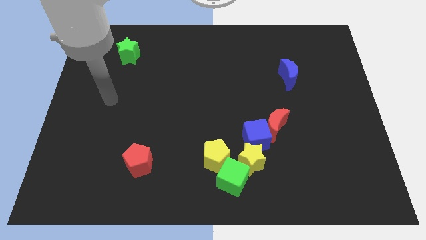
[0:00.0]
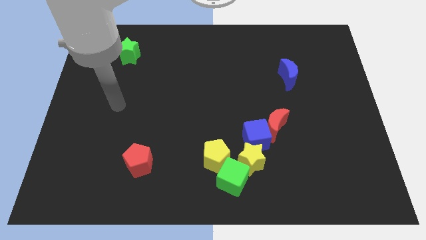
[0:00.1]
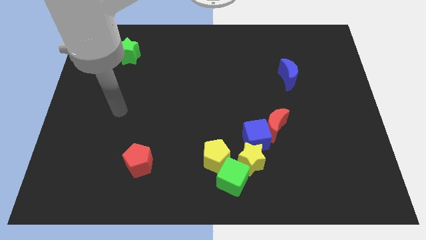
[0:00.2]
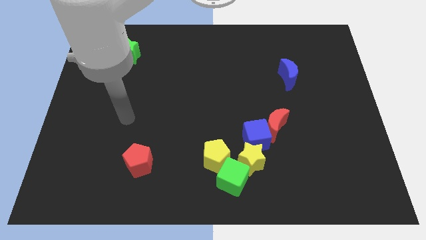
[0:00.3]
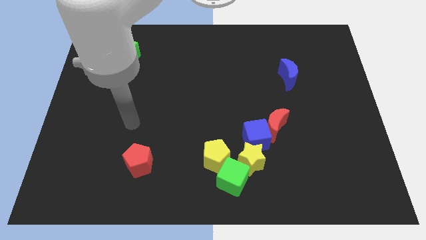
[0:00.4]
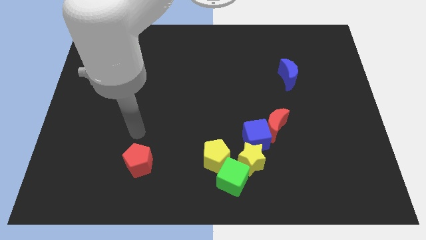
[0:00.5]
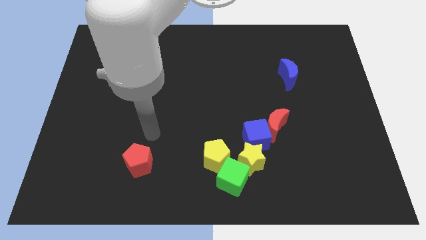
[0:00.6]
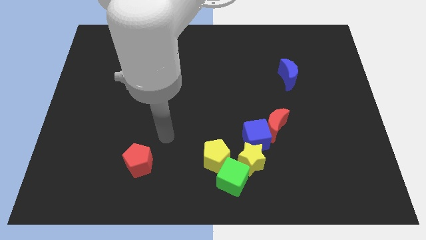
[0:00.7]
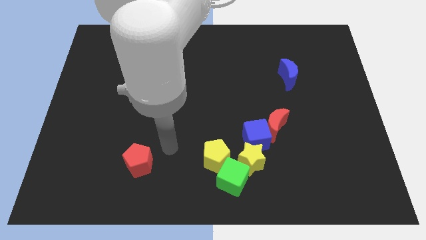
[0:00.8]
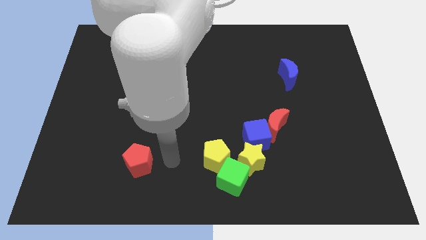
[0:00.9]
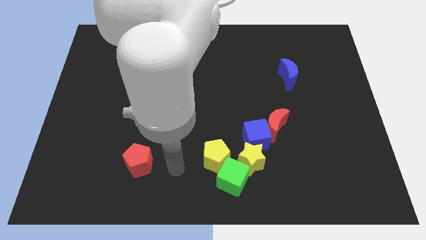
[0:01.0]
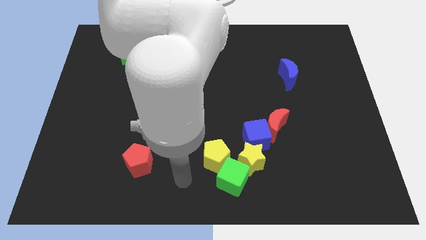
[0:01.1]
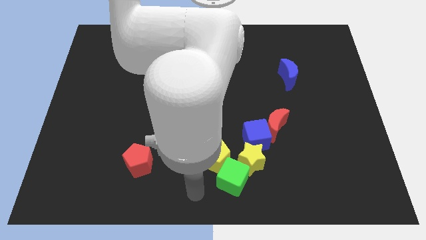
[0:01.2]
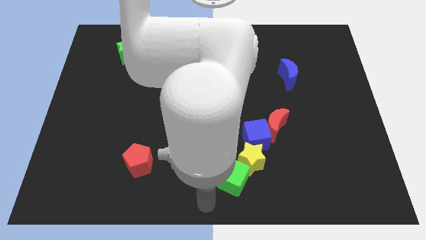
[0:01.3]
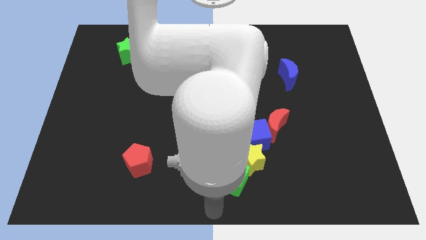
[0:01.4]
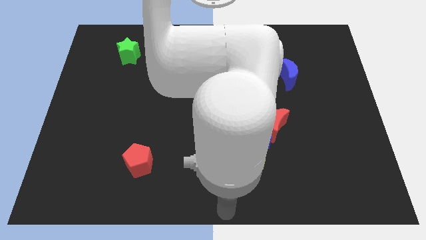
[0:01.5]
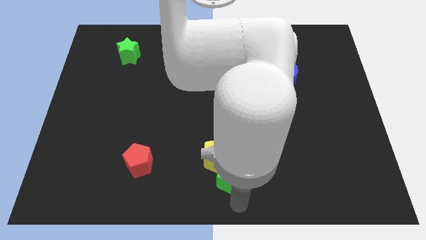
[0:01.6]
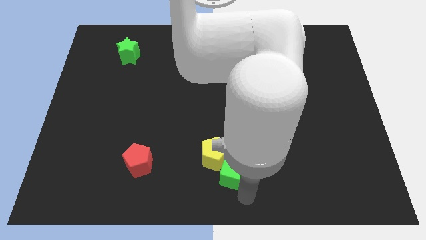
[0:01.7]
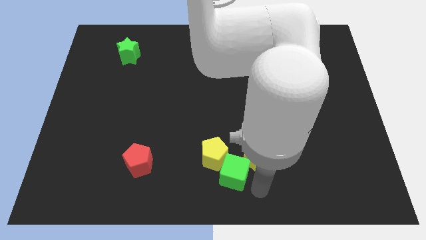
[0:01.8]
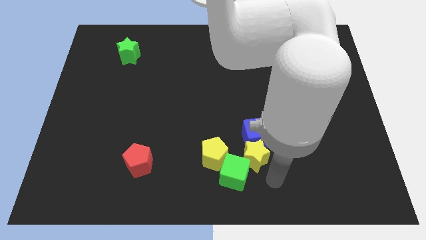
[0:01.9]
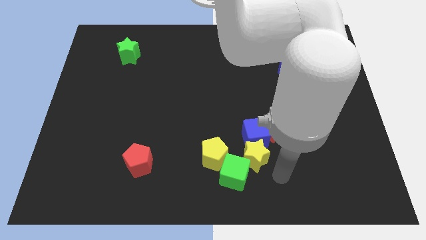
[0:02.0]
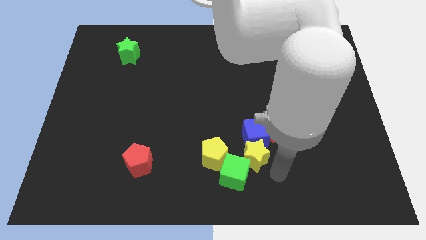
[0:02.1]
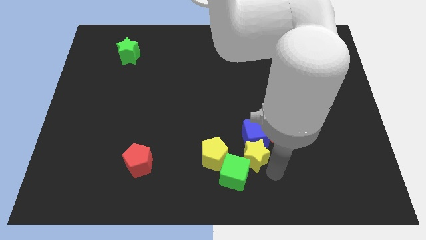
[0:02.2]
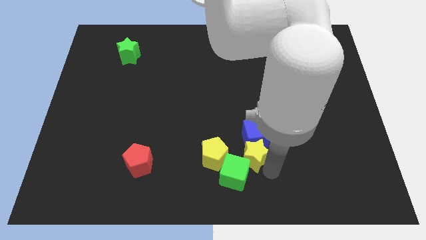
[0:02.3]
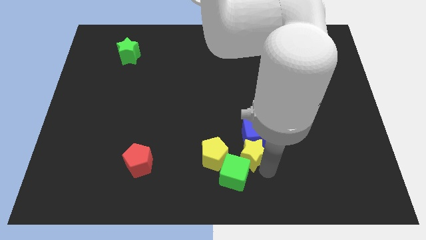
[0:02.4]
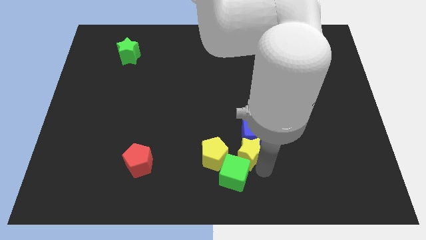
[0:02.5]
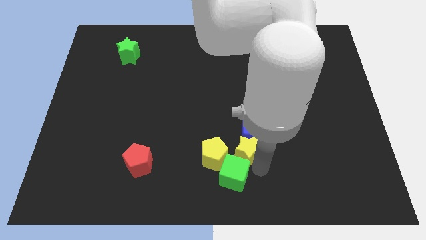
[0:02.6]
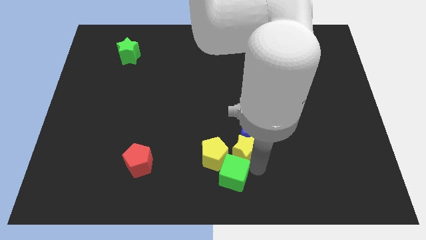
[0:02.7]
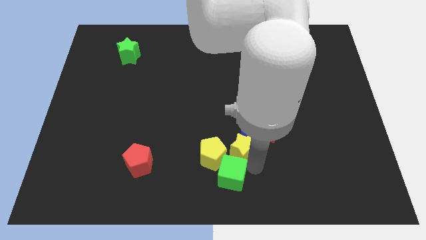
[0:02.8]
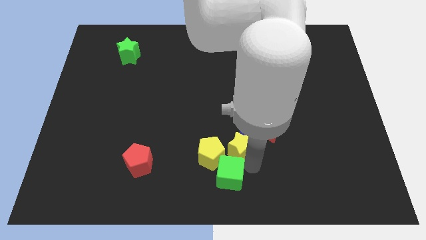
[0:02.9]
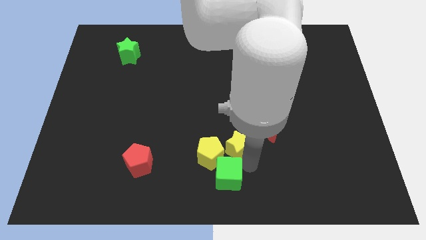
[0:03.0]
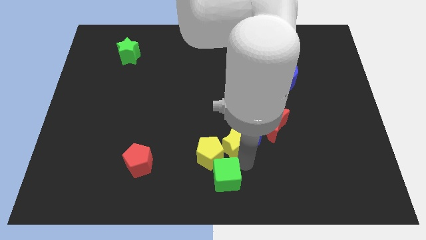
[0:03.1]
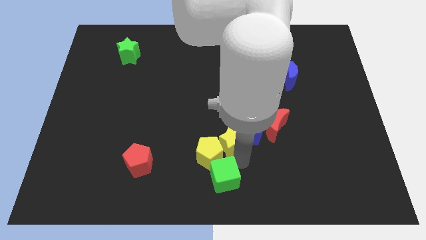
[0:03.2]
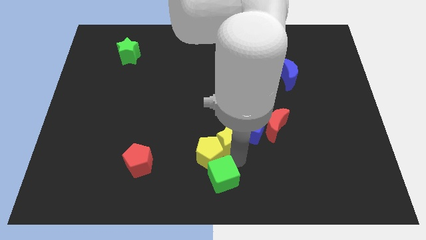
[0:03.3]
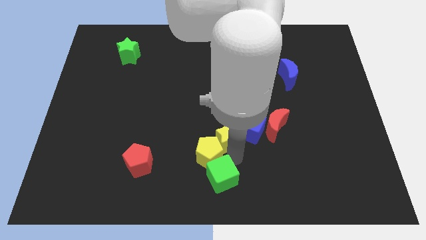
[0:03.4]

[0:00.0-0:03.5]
slightly push the yellow star upwards and to the left

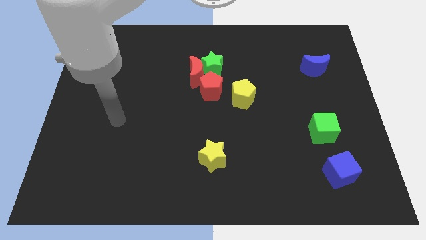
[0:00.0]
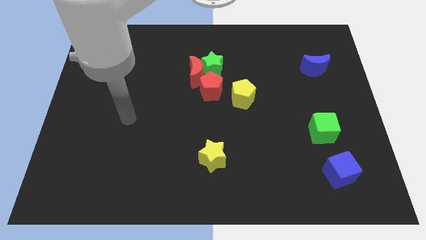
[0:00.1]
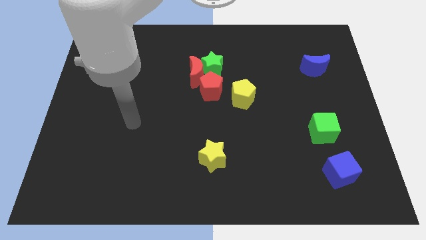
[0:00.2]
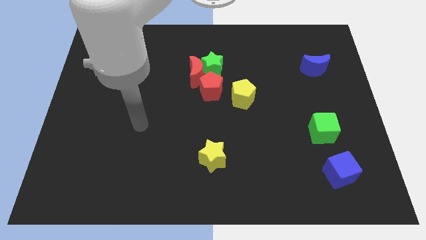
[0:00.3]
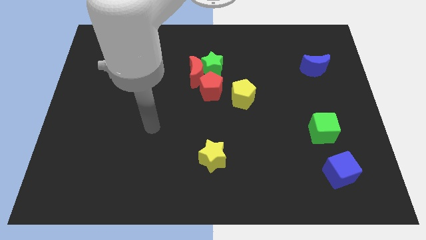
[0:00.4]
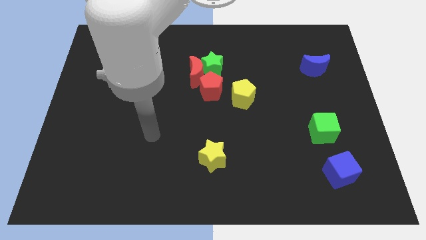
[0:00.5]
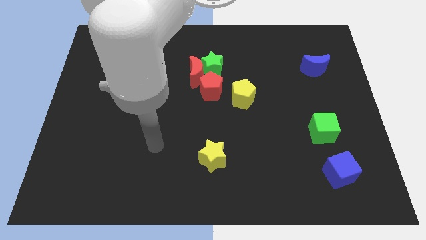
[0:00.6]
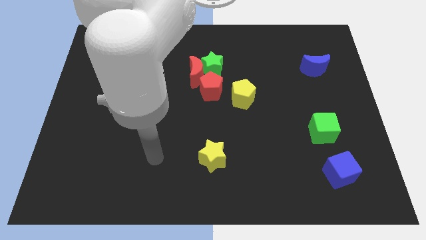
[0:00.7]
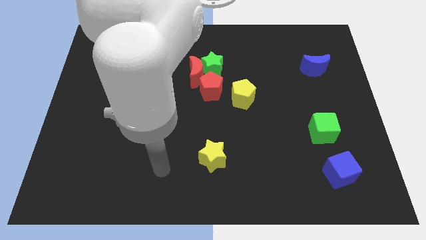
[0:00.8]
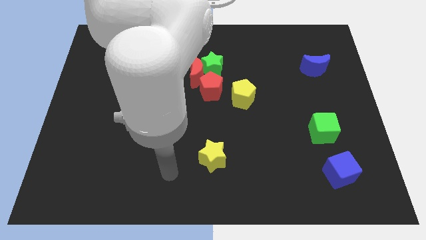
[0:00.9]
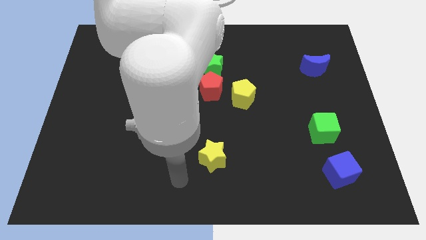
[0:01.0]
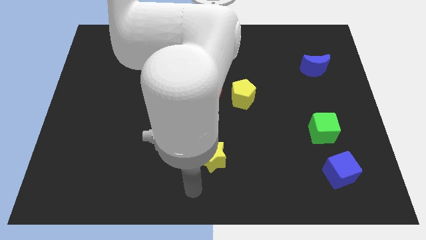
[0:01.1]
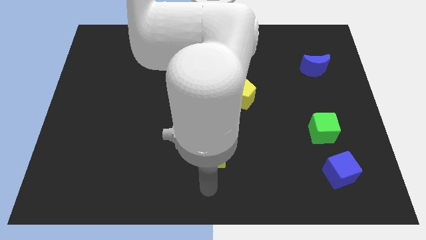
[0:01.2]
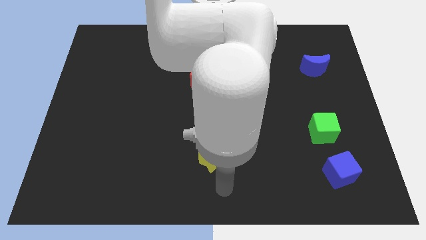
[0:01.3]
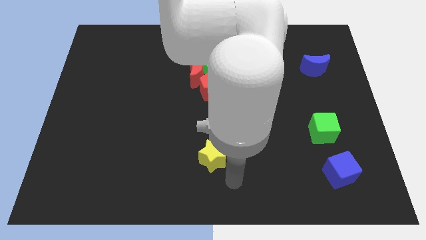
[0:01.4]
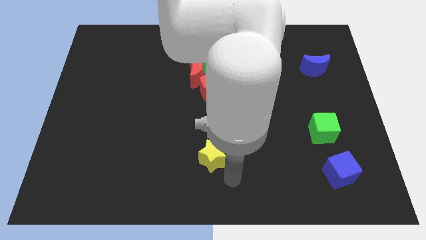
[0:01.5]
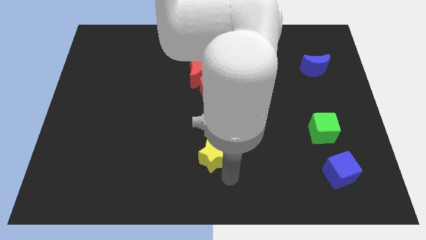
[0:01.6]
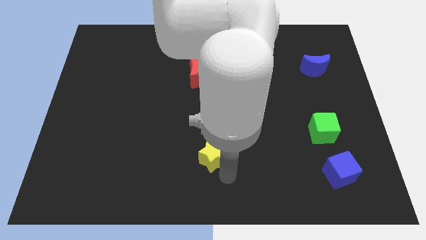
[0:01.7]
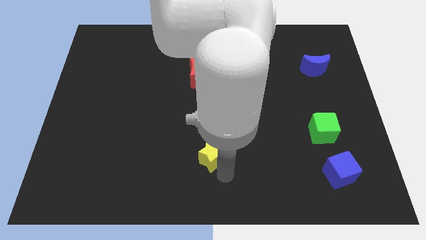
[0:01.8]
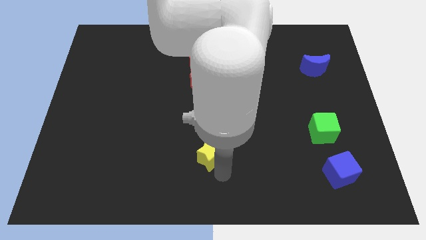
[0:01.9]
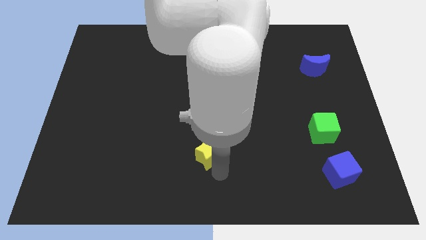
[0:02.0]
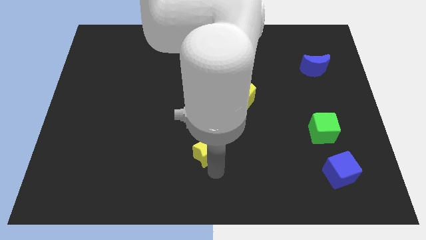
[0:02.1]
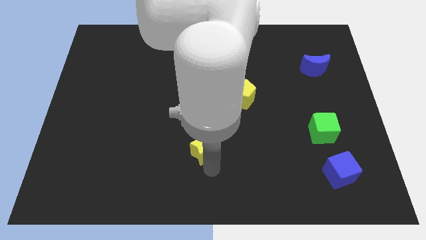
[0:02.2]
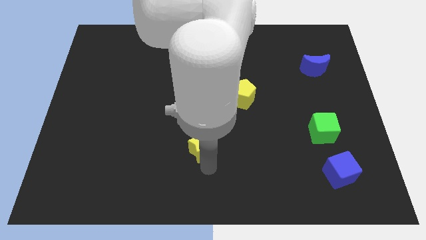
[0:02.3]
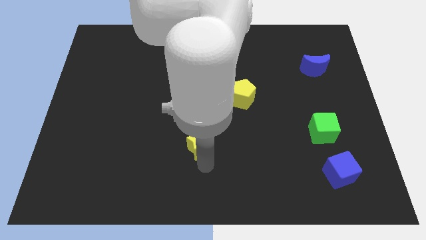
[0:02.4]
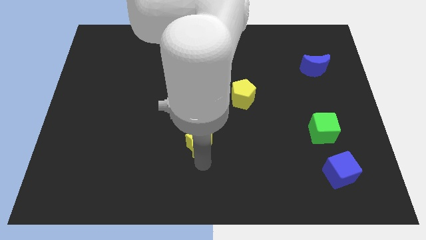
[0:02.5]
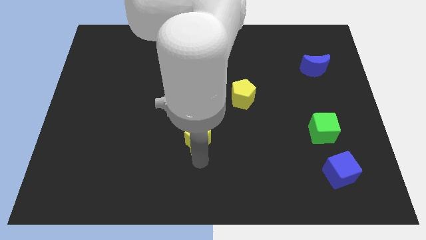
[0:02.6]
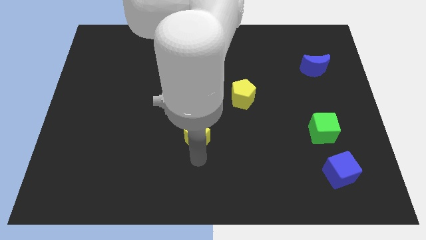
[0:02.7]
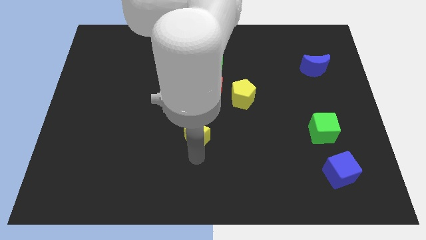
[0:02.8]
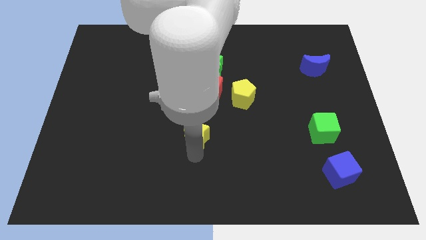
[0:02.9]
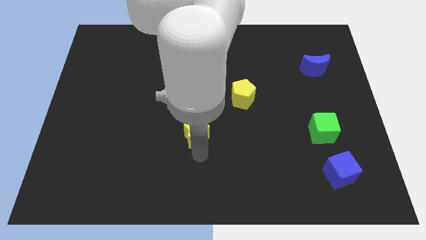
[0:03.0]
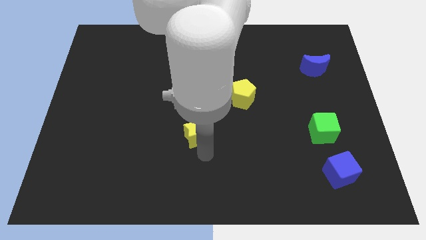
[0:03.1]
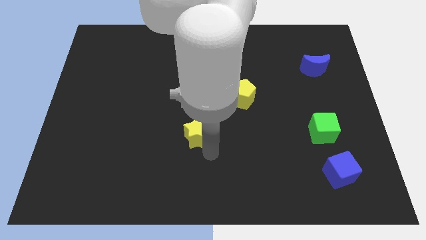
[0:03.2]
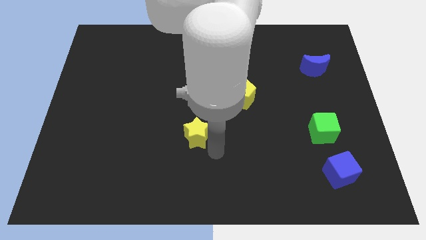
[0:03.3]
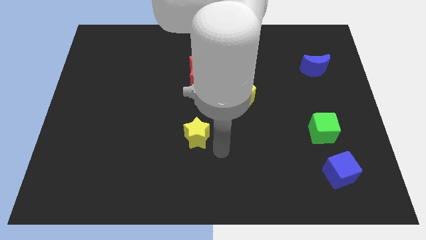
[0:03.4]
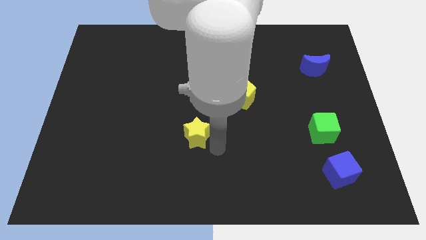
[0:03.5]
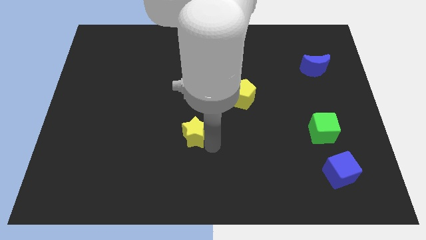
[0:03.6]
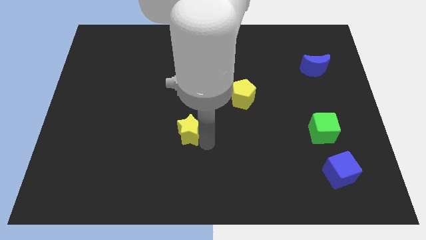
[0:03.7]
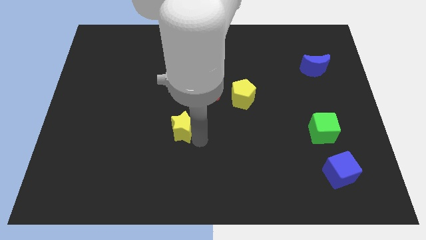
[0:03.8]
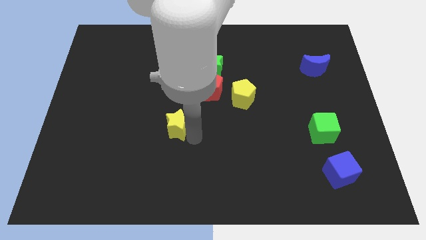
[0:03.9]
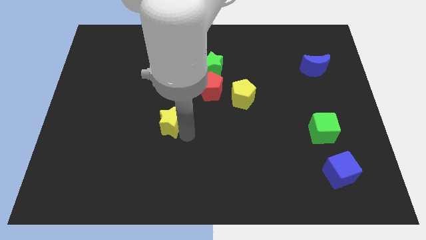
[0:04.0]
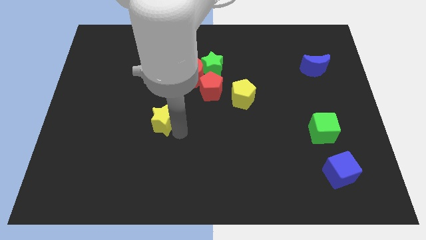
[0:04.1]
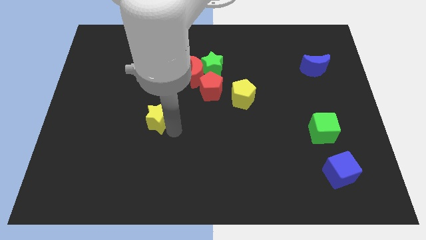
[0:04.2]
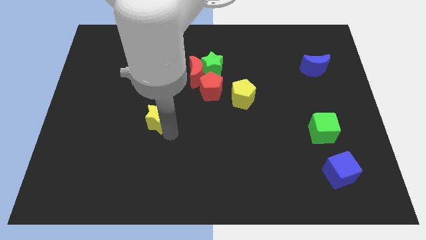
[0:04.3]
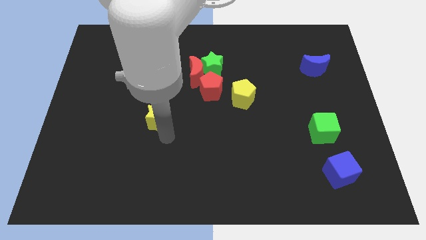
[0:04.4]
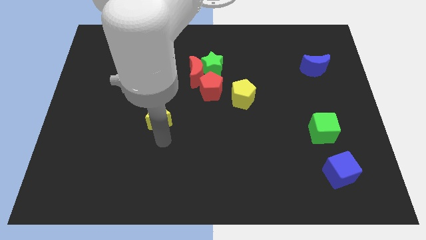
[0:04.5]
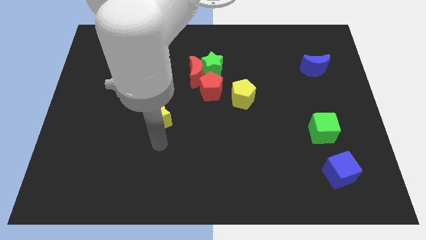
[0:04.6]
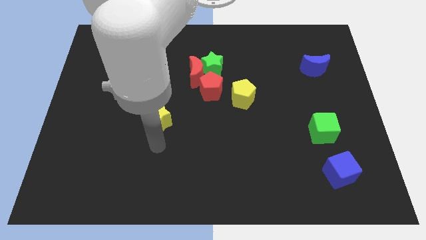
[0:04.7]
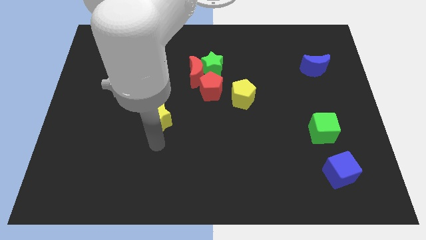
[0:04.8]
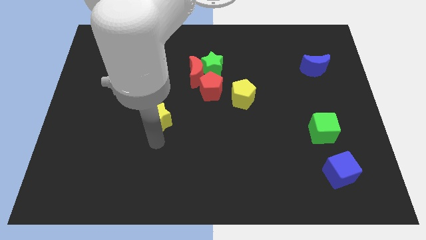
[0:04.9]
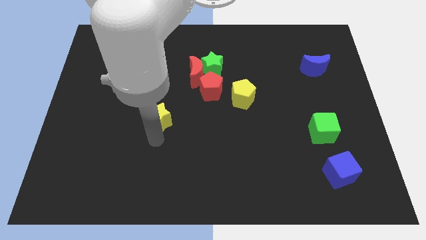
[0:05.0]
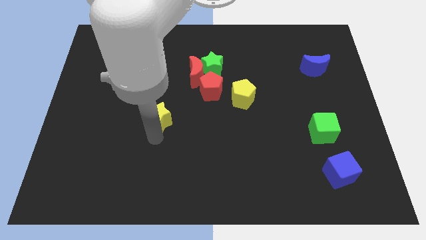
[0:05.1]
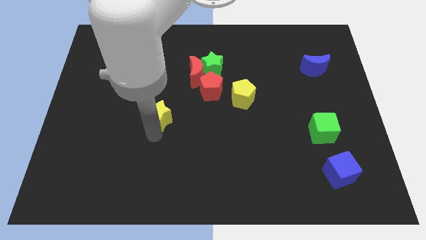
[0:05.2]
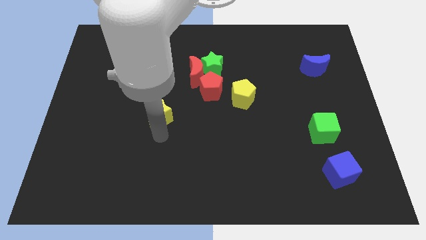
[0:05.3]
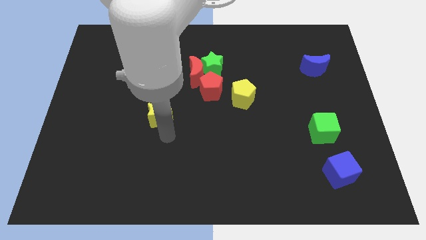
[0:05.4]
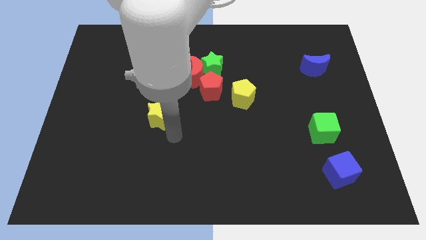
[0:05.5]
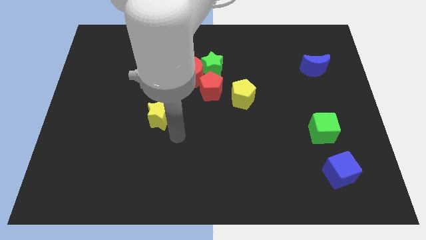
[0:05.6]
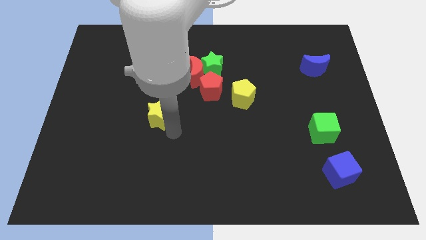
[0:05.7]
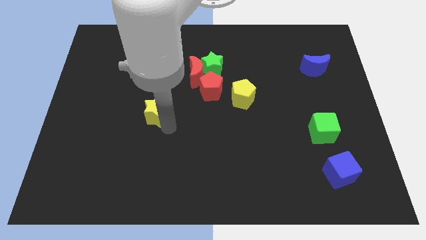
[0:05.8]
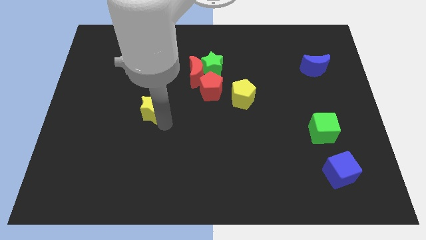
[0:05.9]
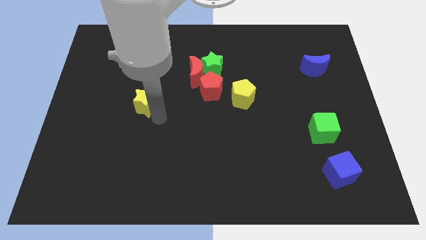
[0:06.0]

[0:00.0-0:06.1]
slide the yellow star upwards and to the left diagonally
